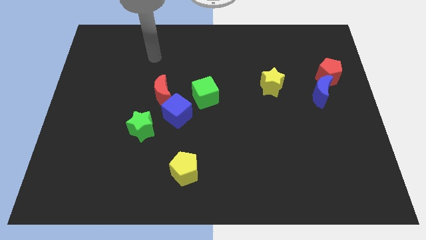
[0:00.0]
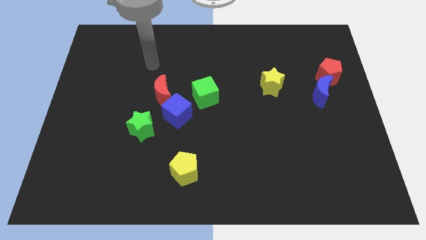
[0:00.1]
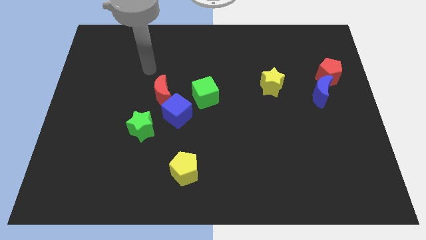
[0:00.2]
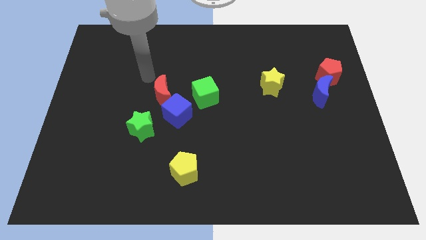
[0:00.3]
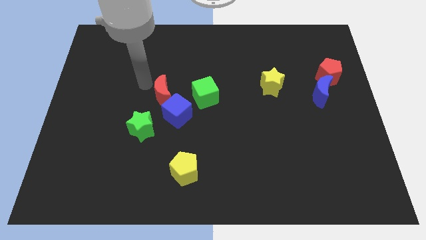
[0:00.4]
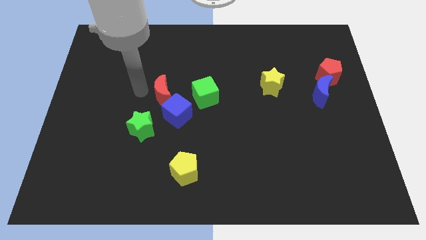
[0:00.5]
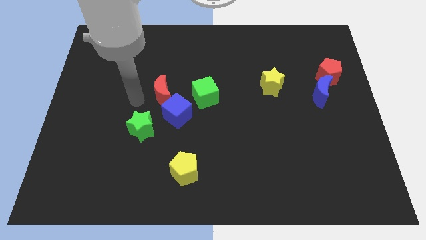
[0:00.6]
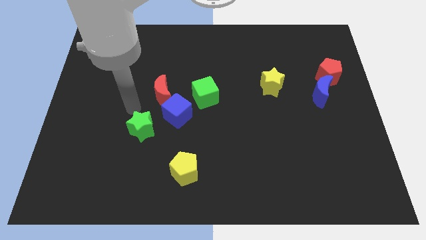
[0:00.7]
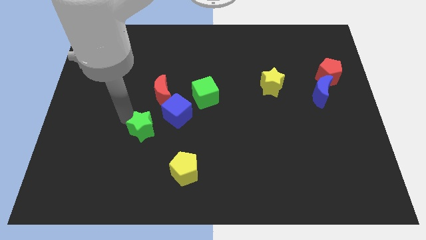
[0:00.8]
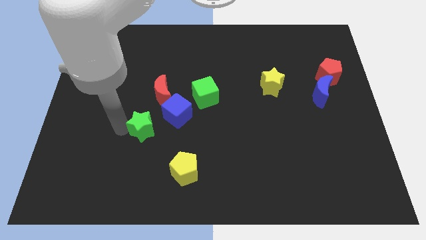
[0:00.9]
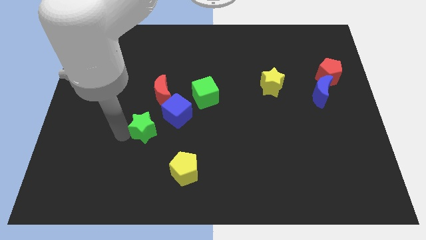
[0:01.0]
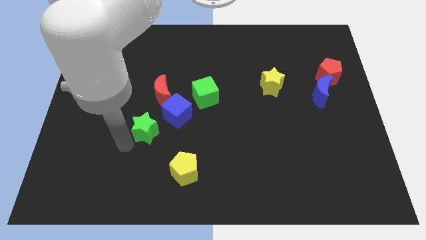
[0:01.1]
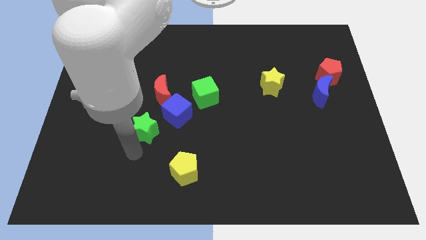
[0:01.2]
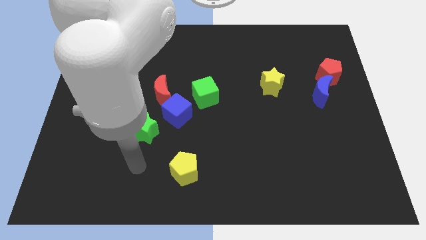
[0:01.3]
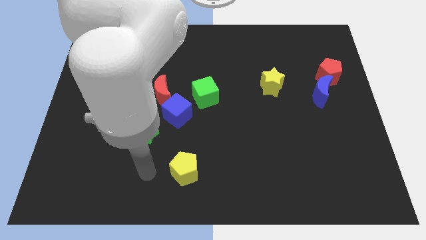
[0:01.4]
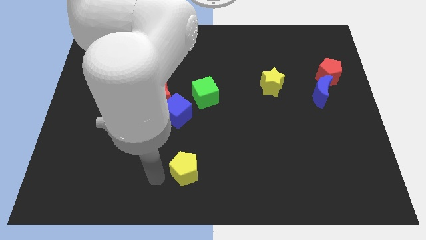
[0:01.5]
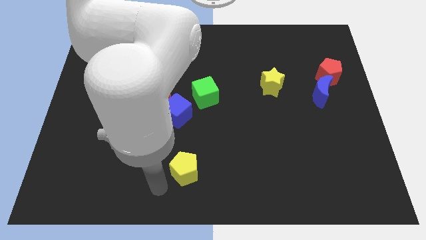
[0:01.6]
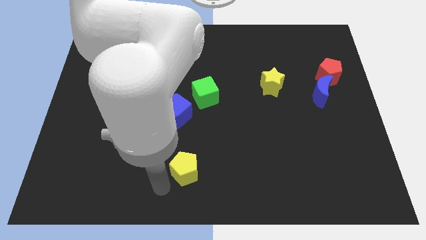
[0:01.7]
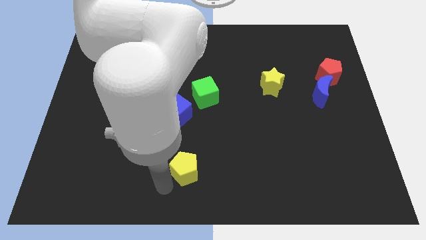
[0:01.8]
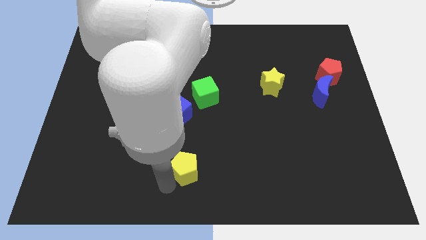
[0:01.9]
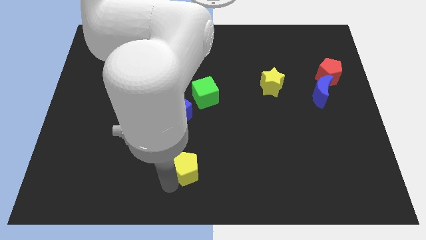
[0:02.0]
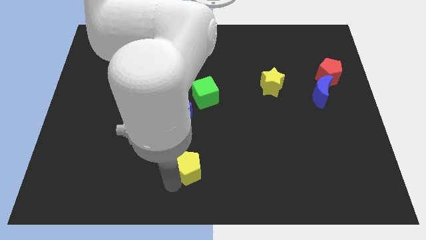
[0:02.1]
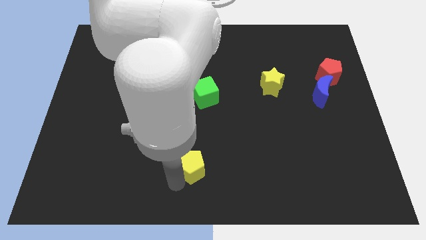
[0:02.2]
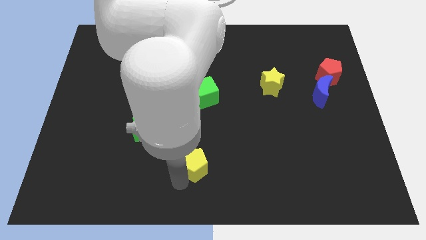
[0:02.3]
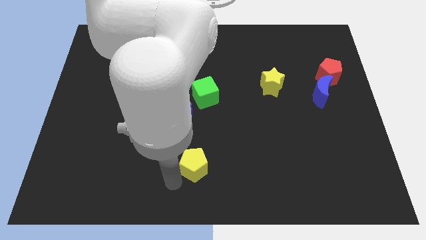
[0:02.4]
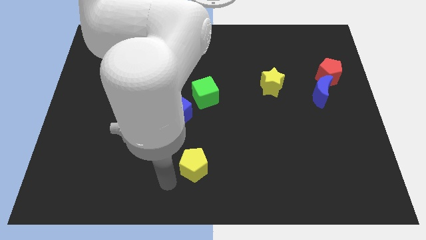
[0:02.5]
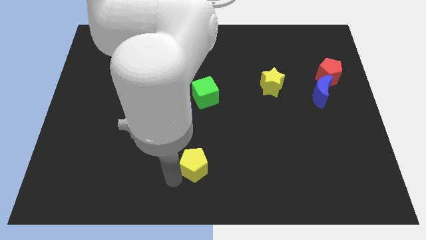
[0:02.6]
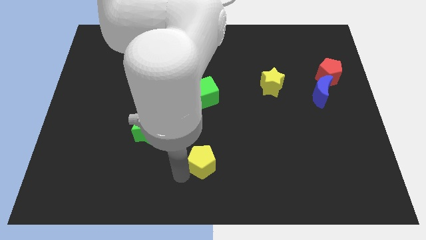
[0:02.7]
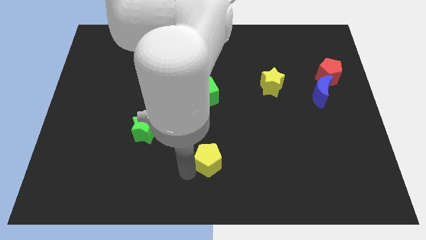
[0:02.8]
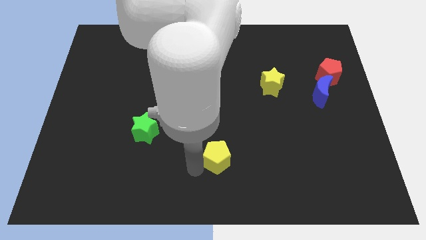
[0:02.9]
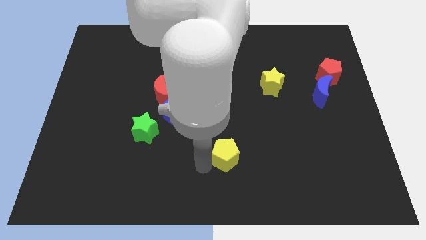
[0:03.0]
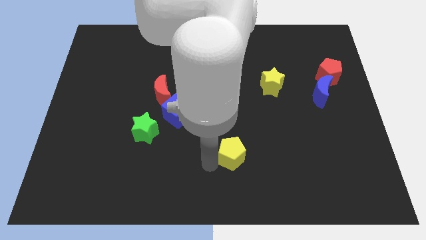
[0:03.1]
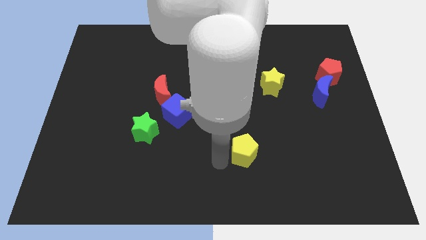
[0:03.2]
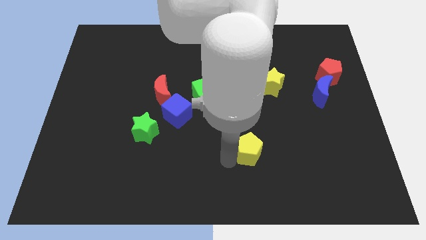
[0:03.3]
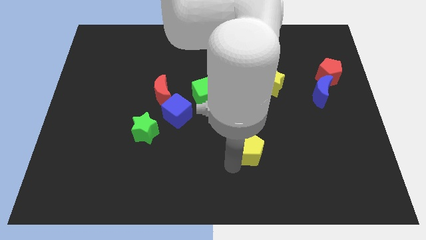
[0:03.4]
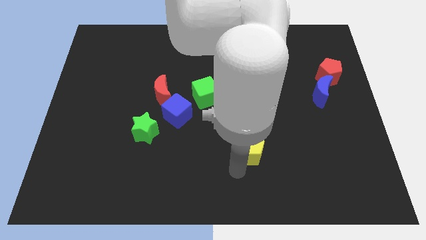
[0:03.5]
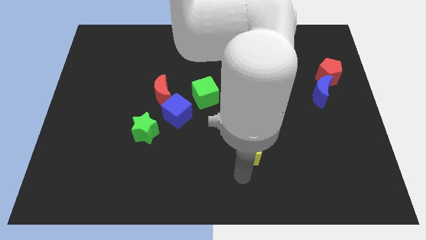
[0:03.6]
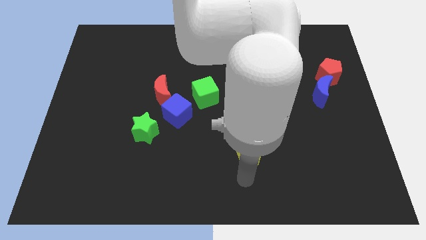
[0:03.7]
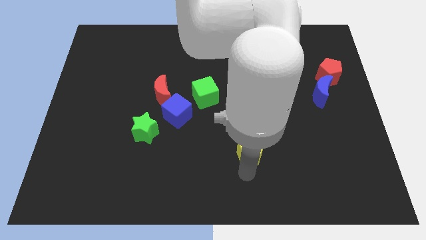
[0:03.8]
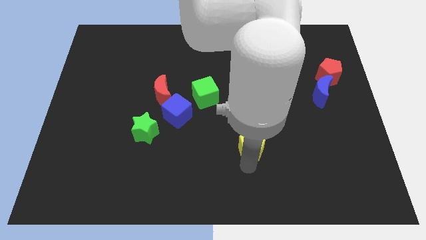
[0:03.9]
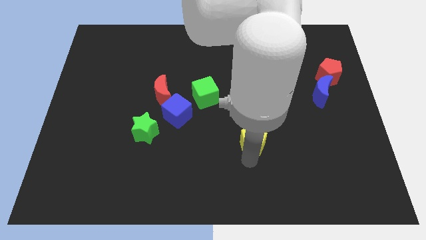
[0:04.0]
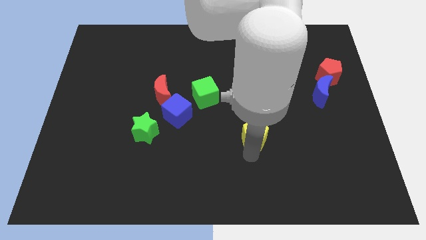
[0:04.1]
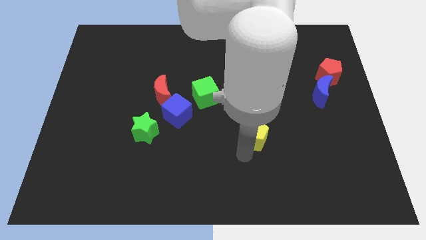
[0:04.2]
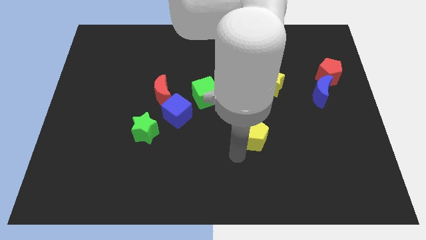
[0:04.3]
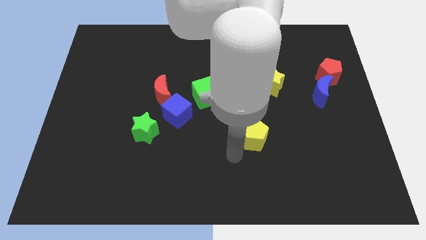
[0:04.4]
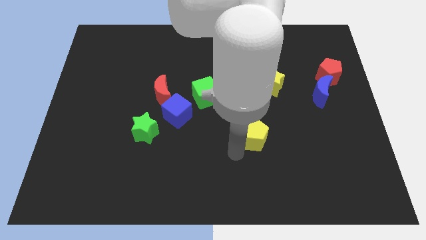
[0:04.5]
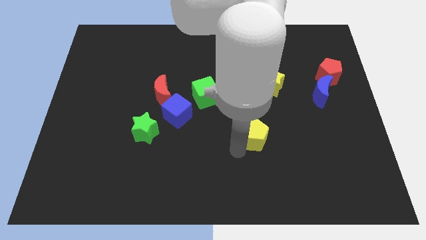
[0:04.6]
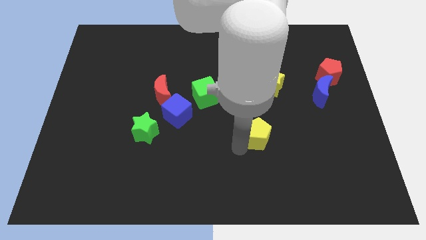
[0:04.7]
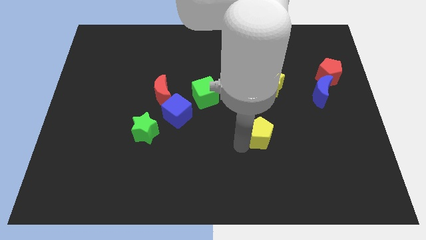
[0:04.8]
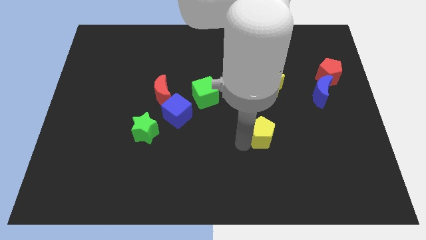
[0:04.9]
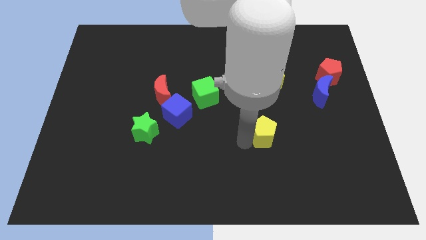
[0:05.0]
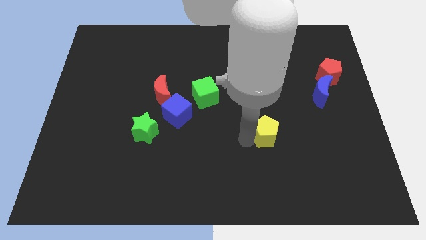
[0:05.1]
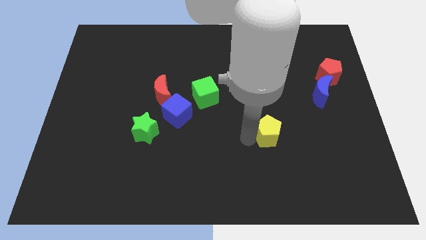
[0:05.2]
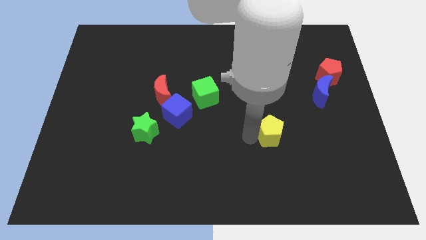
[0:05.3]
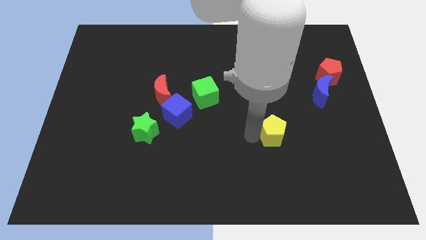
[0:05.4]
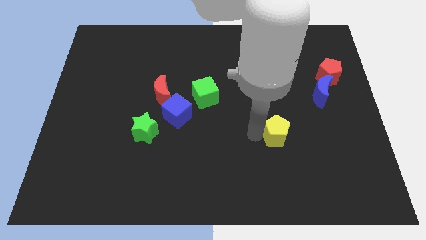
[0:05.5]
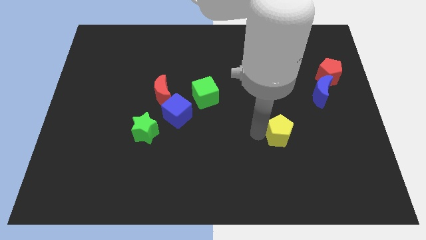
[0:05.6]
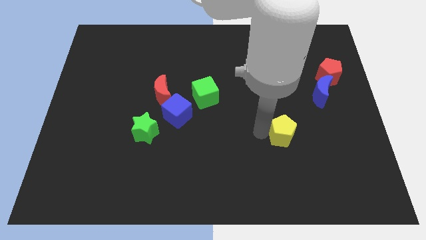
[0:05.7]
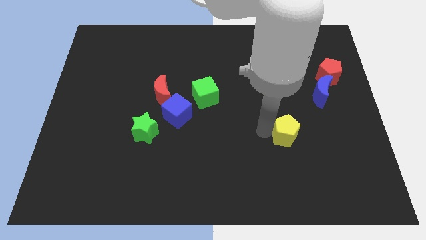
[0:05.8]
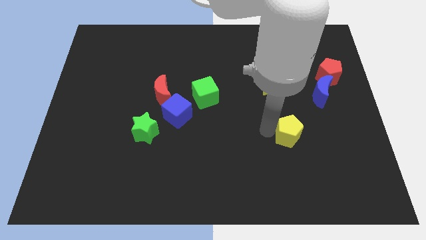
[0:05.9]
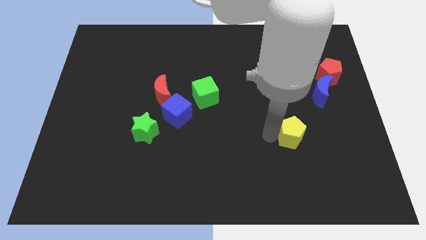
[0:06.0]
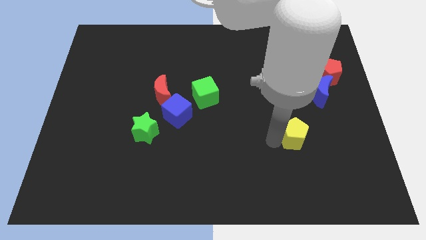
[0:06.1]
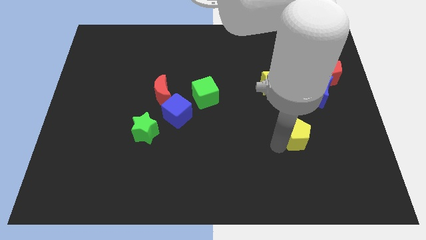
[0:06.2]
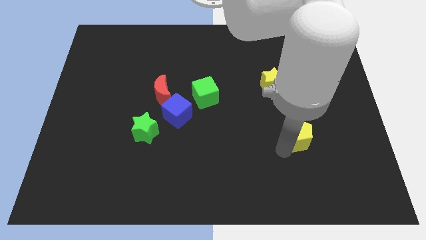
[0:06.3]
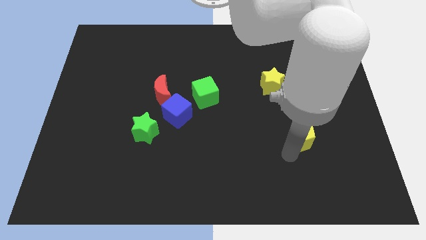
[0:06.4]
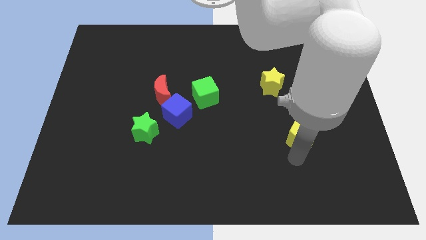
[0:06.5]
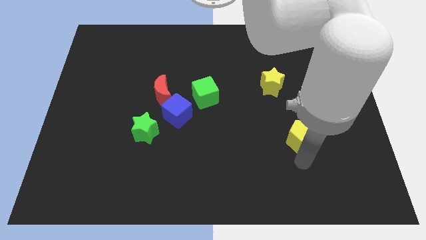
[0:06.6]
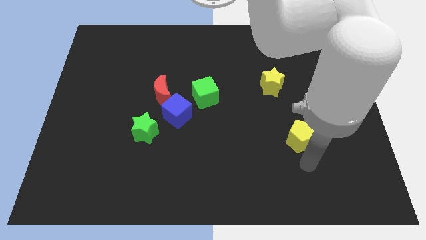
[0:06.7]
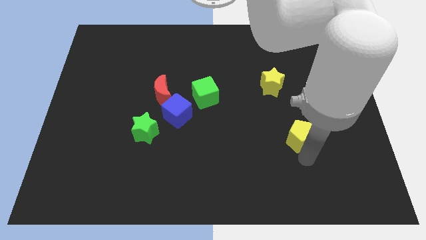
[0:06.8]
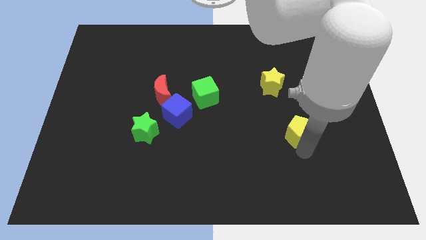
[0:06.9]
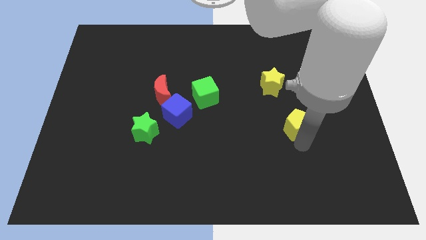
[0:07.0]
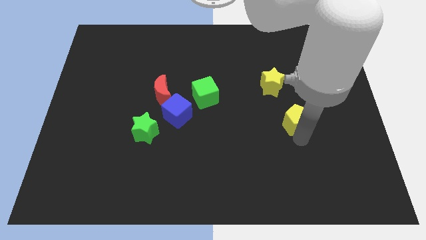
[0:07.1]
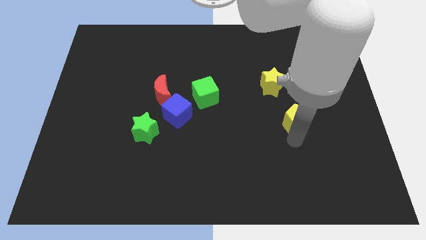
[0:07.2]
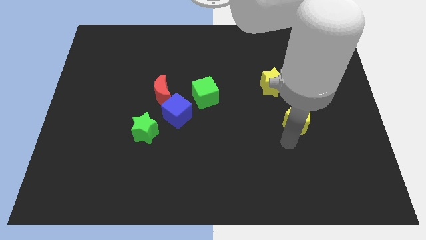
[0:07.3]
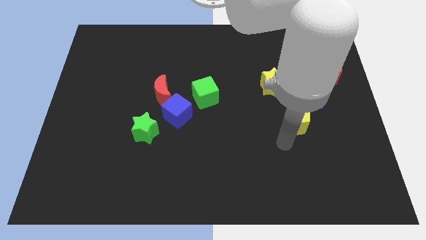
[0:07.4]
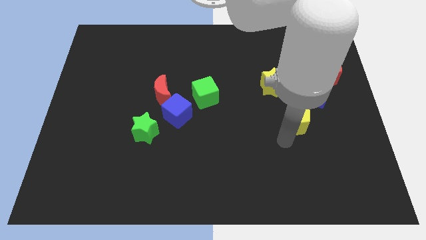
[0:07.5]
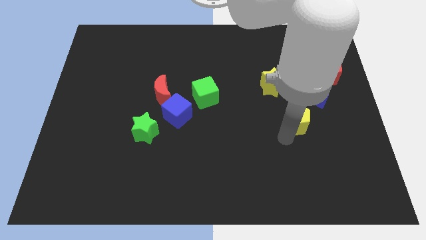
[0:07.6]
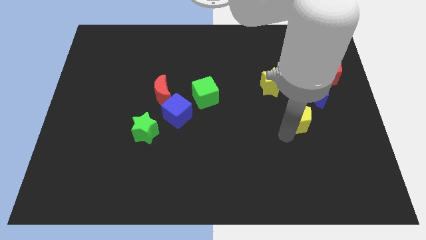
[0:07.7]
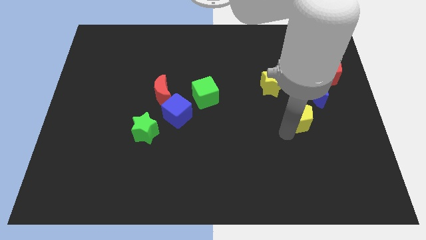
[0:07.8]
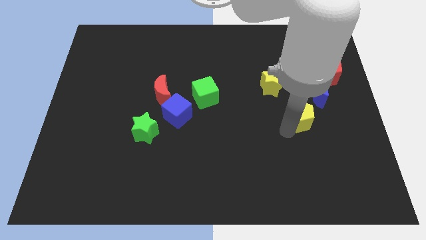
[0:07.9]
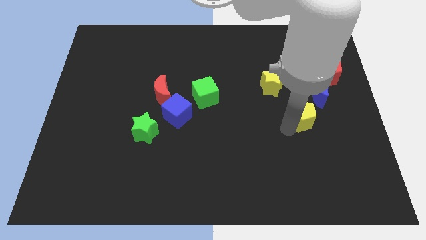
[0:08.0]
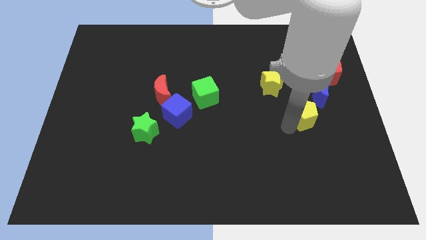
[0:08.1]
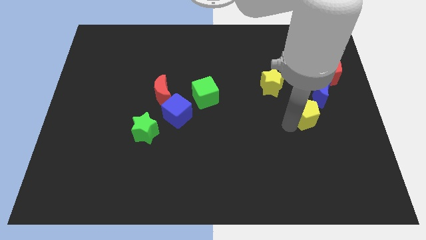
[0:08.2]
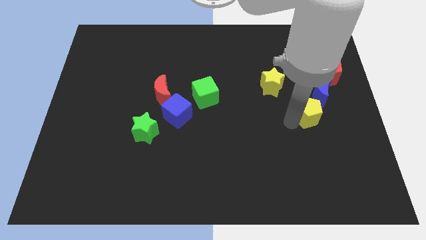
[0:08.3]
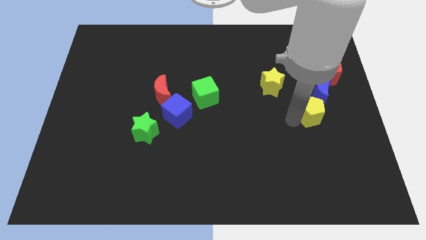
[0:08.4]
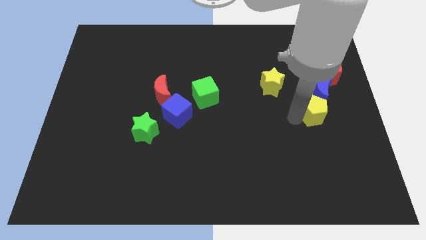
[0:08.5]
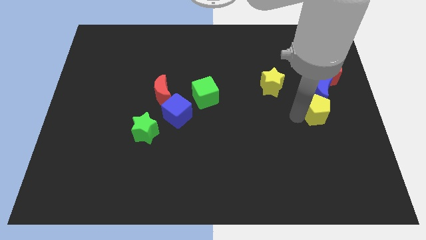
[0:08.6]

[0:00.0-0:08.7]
push the yellow pentagon towards the blue moon
